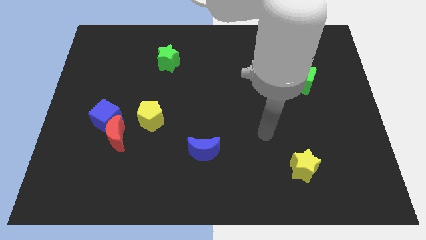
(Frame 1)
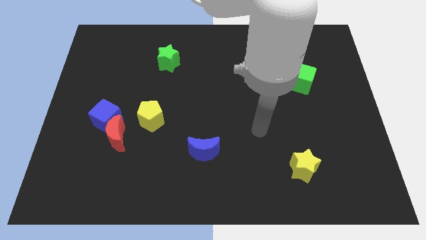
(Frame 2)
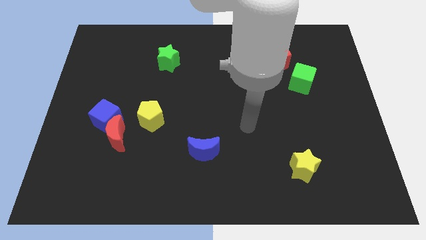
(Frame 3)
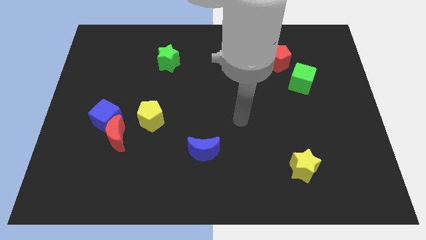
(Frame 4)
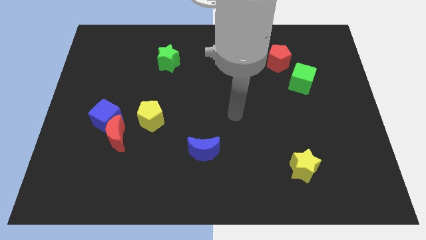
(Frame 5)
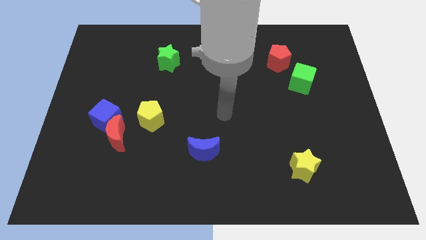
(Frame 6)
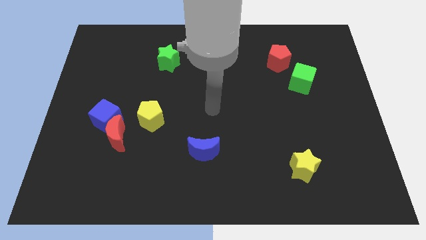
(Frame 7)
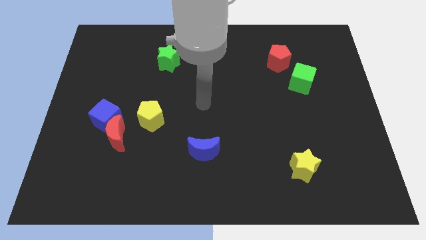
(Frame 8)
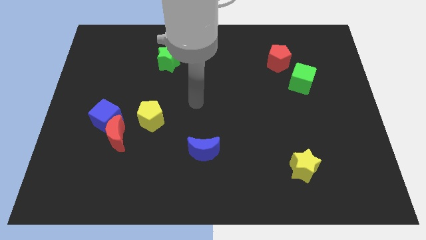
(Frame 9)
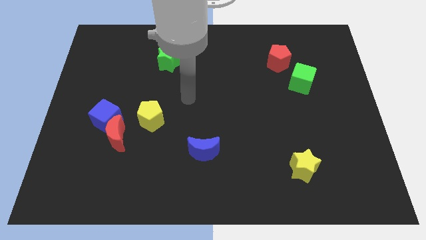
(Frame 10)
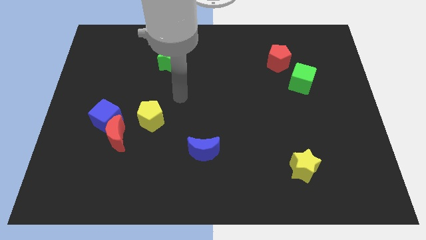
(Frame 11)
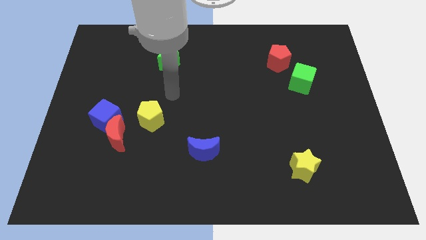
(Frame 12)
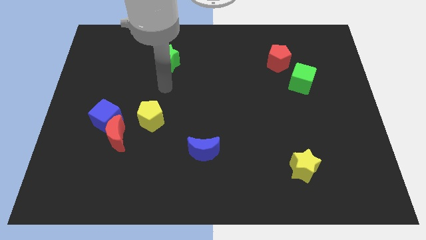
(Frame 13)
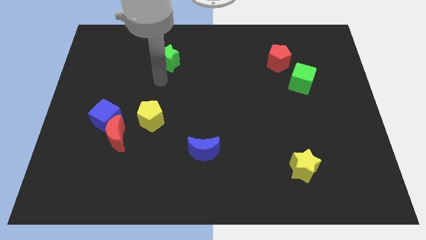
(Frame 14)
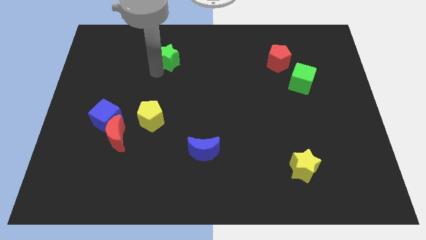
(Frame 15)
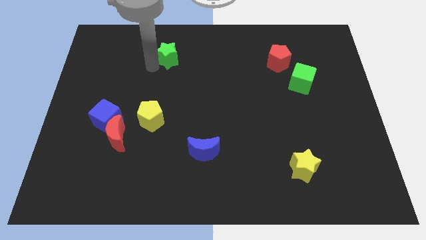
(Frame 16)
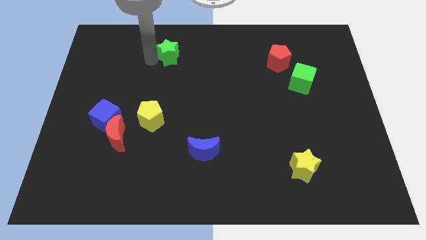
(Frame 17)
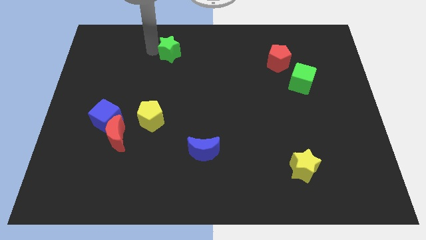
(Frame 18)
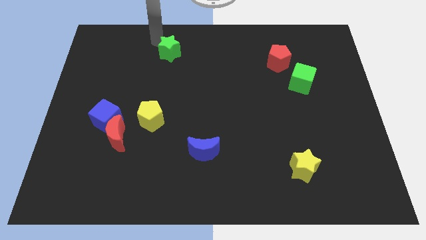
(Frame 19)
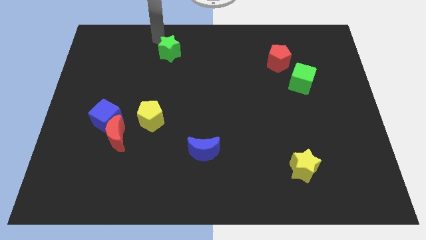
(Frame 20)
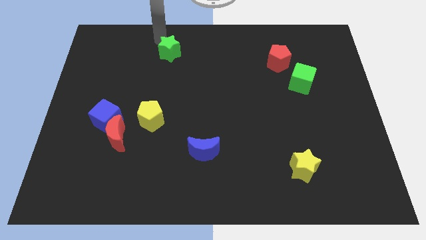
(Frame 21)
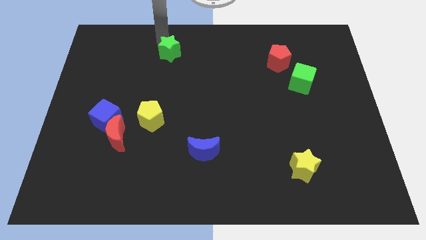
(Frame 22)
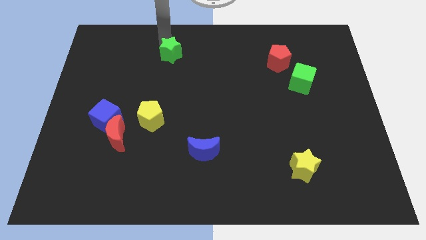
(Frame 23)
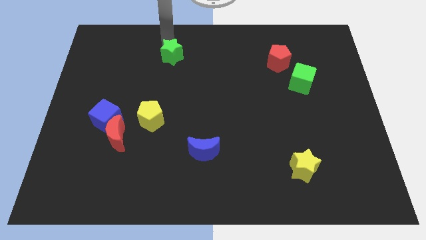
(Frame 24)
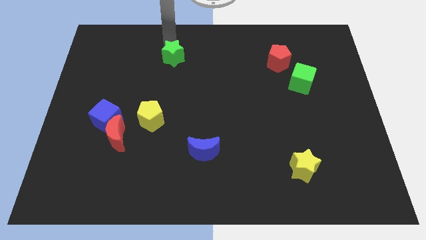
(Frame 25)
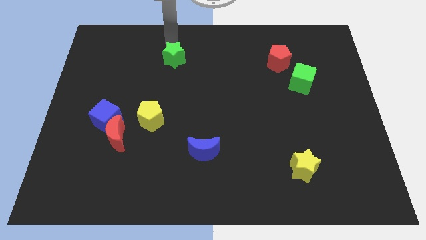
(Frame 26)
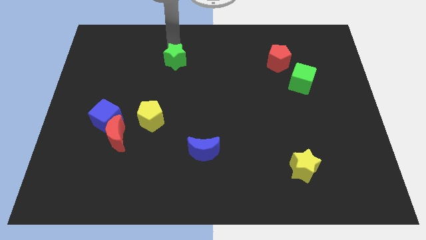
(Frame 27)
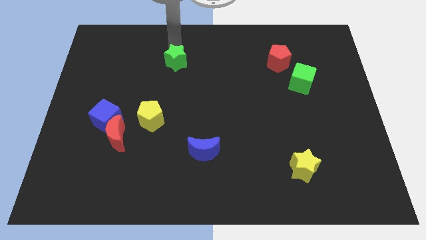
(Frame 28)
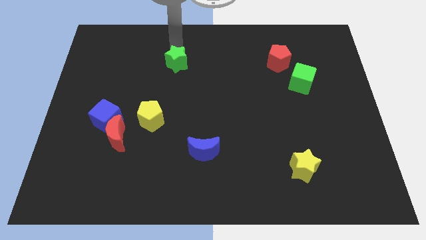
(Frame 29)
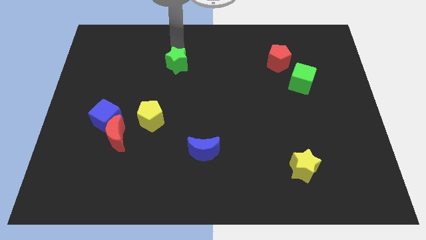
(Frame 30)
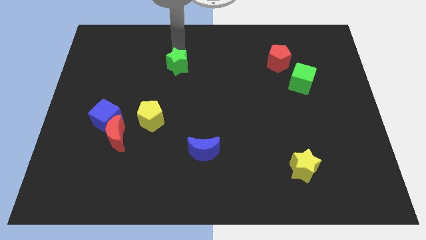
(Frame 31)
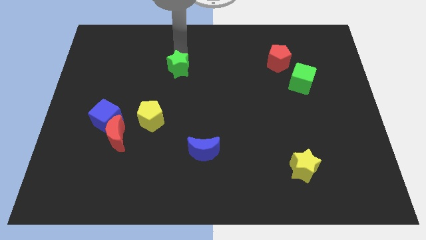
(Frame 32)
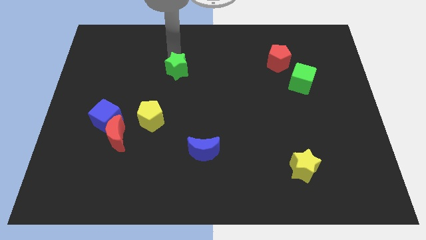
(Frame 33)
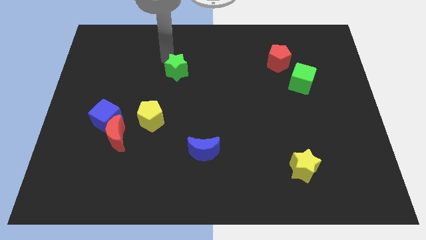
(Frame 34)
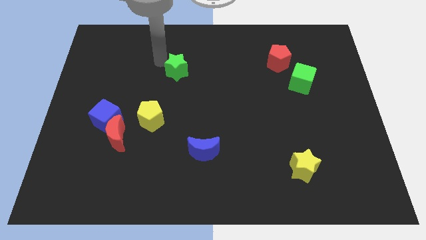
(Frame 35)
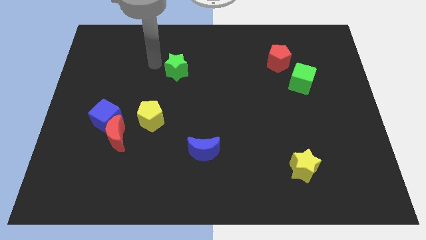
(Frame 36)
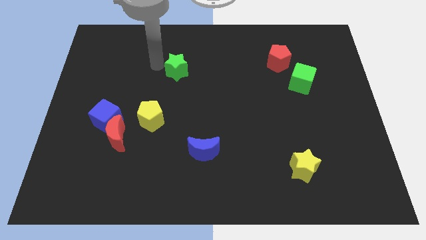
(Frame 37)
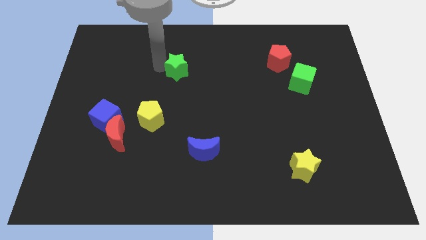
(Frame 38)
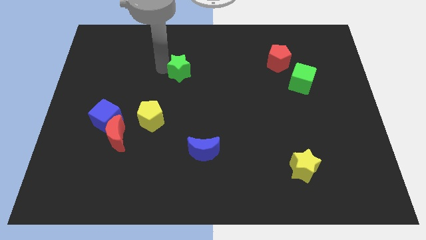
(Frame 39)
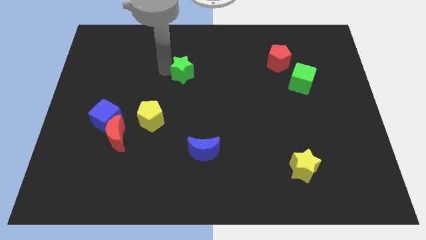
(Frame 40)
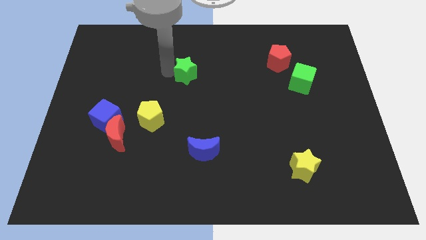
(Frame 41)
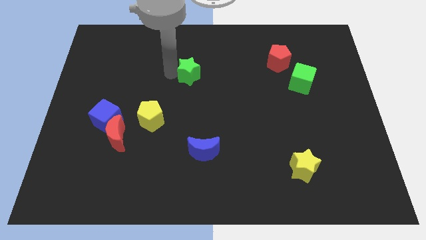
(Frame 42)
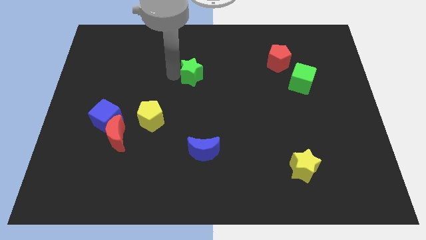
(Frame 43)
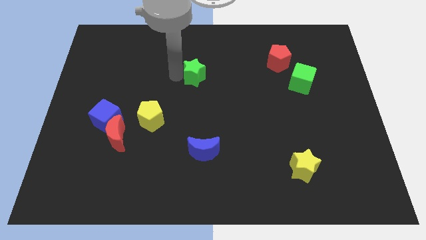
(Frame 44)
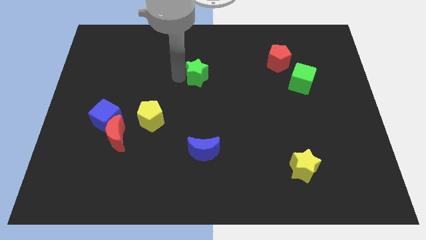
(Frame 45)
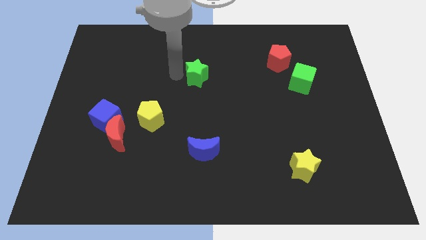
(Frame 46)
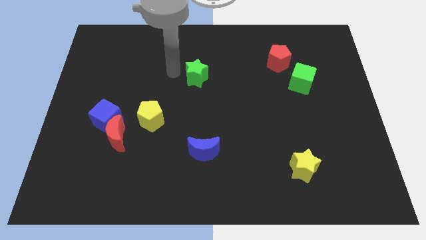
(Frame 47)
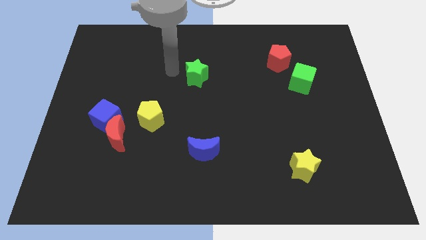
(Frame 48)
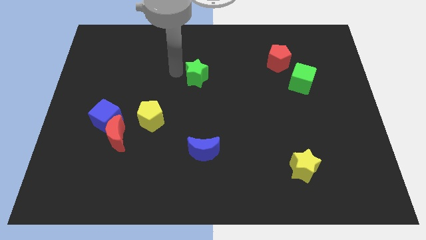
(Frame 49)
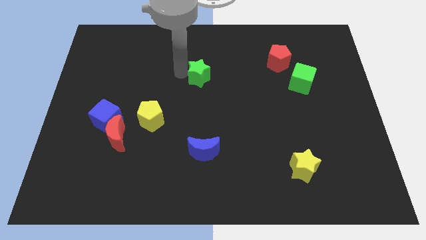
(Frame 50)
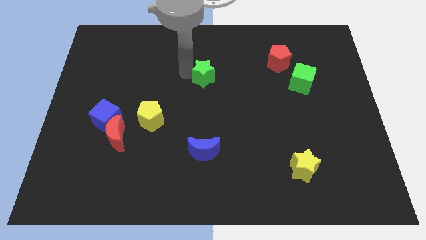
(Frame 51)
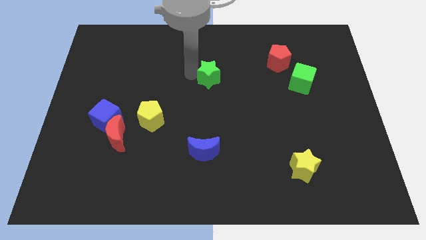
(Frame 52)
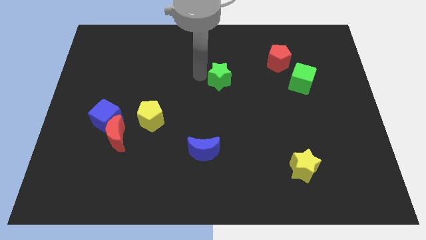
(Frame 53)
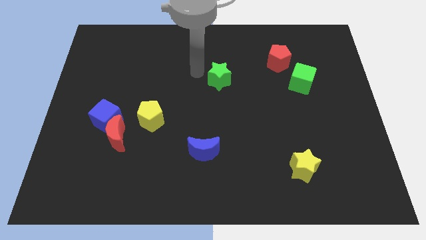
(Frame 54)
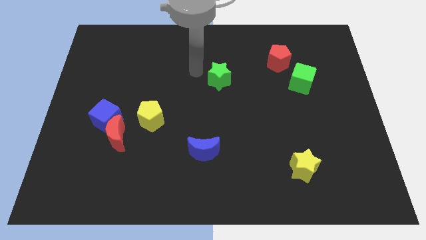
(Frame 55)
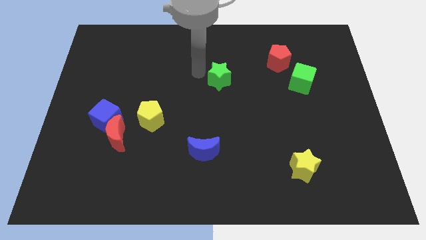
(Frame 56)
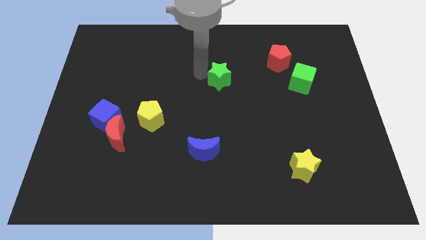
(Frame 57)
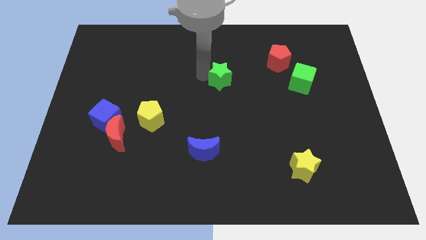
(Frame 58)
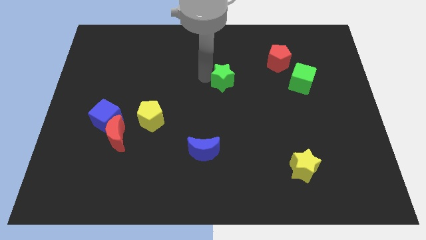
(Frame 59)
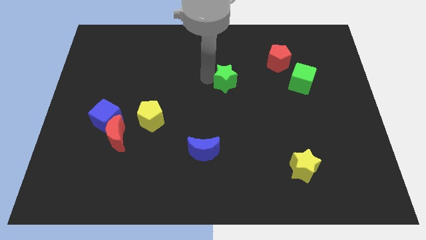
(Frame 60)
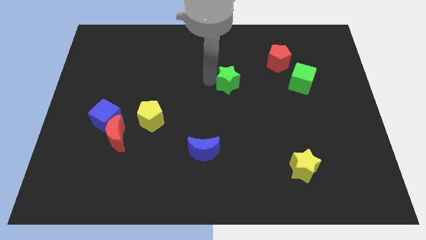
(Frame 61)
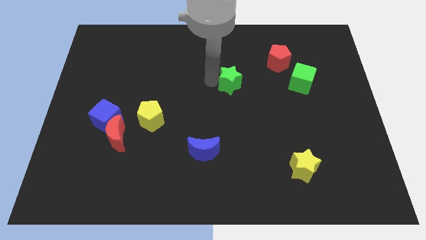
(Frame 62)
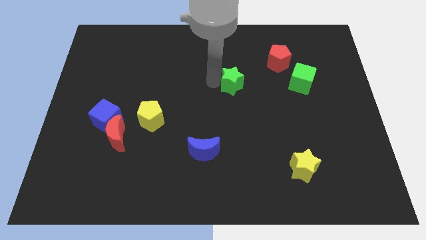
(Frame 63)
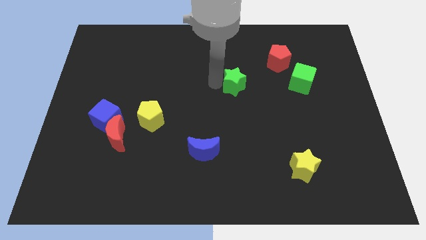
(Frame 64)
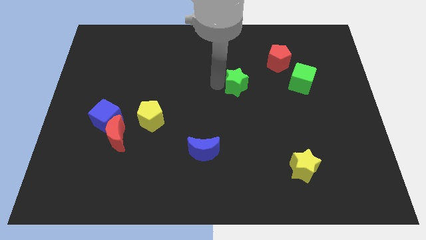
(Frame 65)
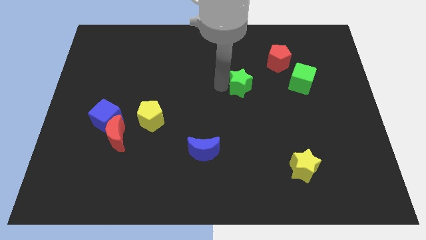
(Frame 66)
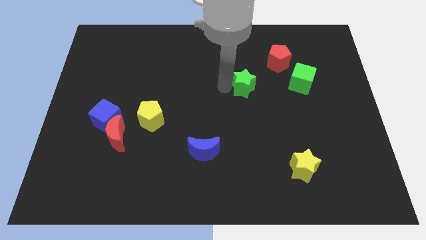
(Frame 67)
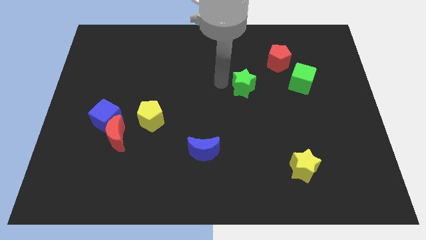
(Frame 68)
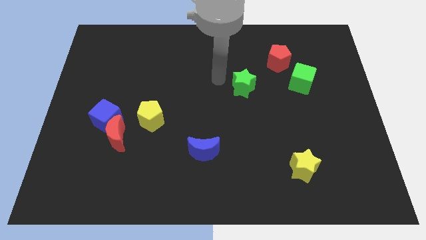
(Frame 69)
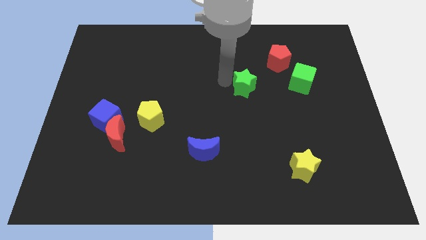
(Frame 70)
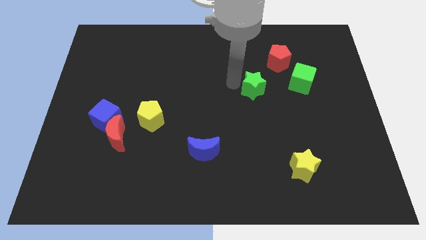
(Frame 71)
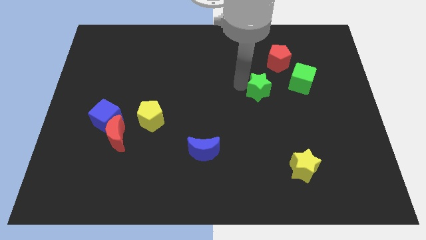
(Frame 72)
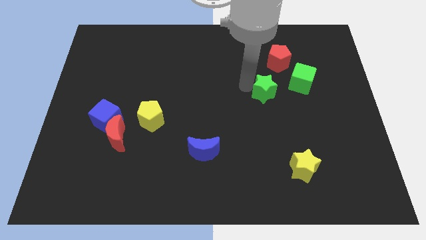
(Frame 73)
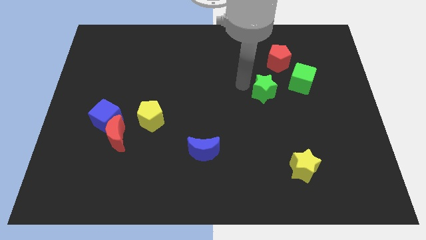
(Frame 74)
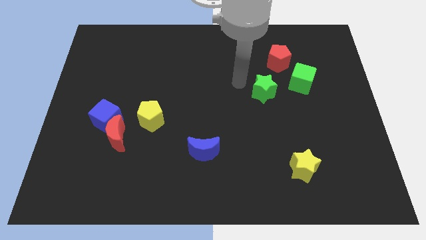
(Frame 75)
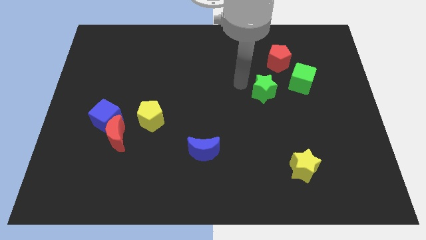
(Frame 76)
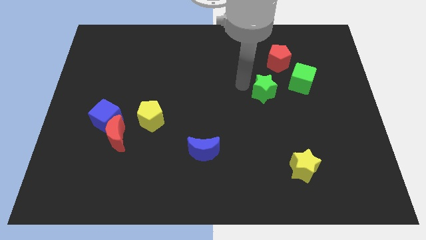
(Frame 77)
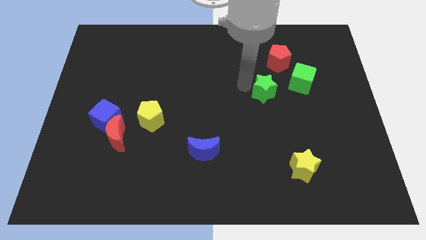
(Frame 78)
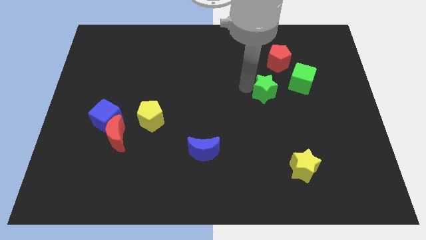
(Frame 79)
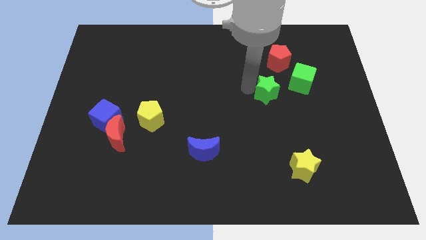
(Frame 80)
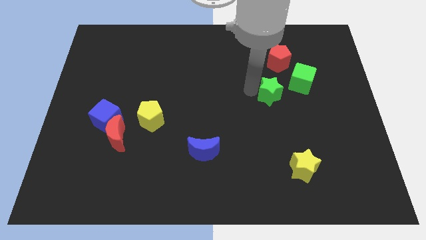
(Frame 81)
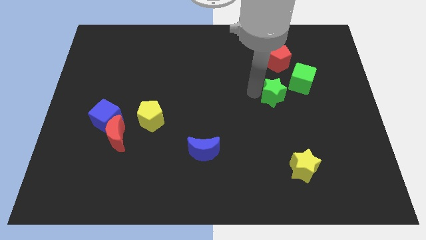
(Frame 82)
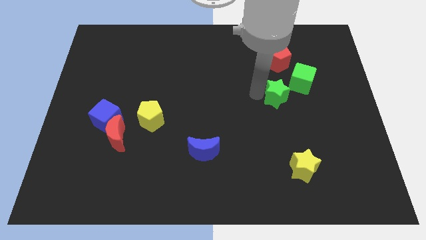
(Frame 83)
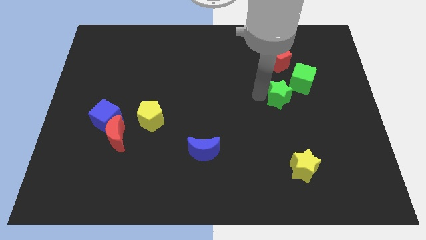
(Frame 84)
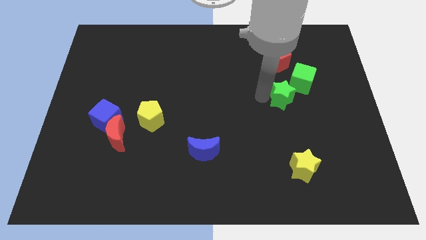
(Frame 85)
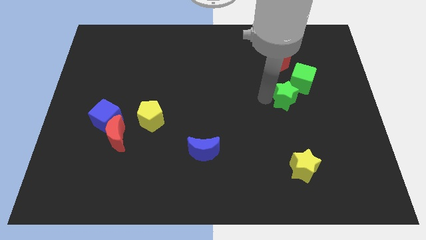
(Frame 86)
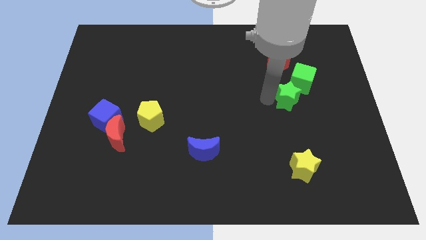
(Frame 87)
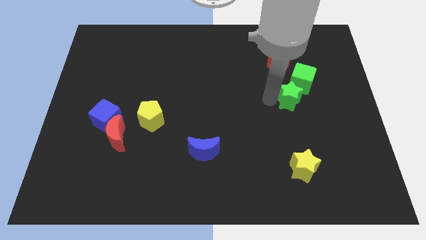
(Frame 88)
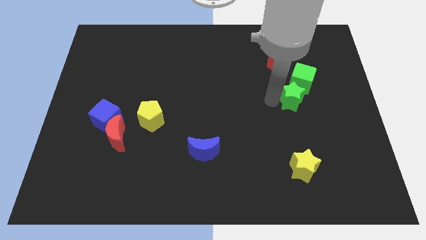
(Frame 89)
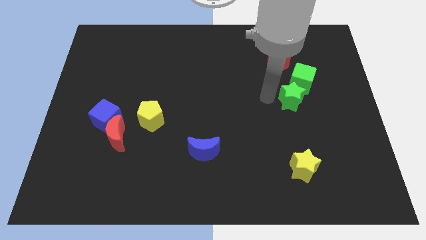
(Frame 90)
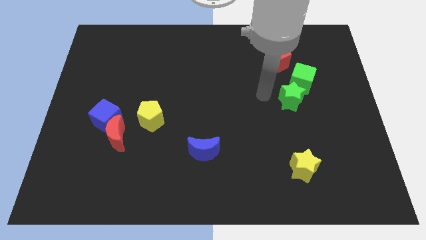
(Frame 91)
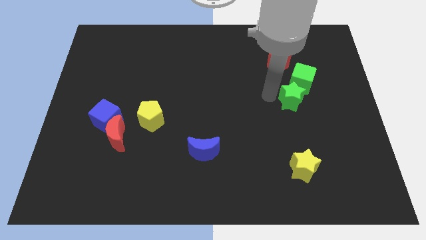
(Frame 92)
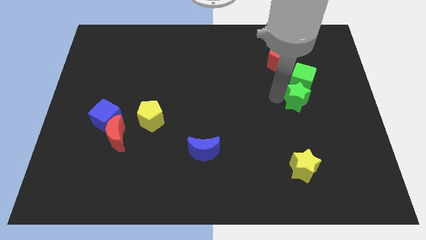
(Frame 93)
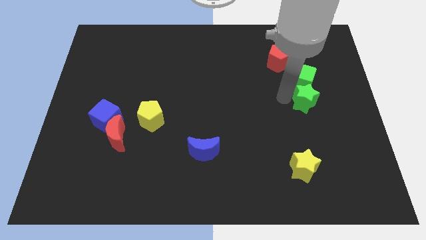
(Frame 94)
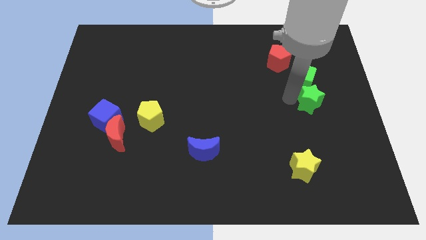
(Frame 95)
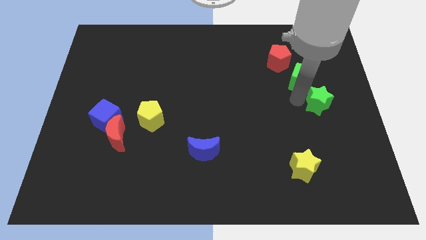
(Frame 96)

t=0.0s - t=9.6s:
put the green star to the center right
